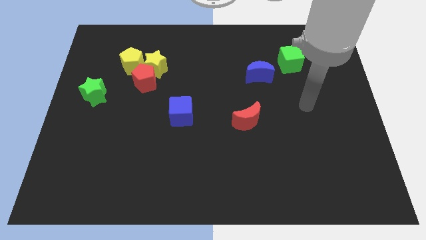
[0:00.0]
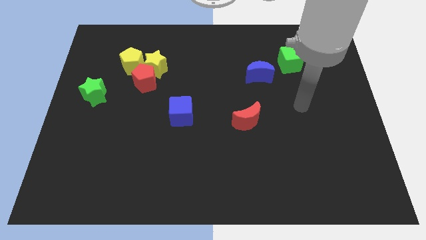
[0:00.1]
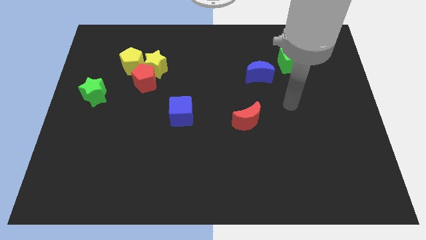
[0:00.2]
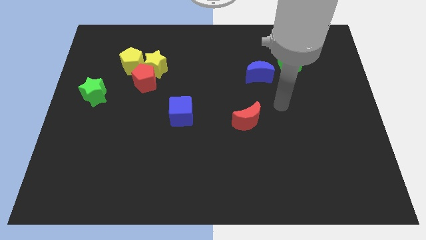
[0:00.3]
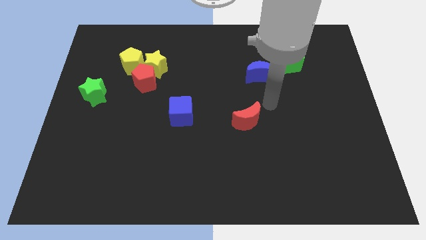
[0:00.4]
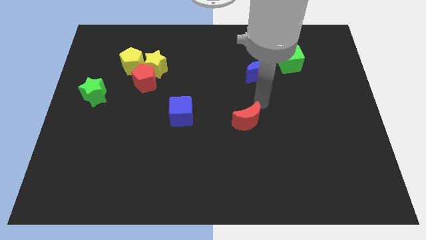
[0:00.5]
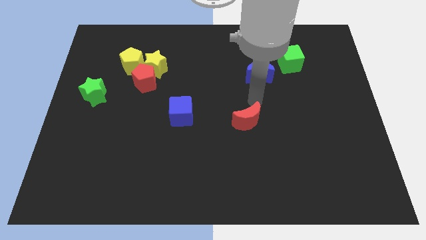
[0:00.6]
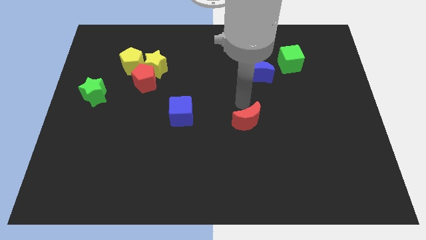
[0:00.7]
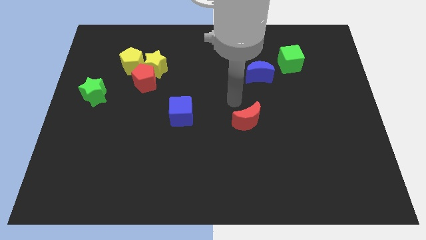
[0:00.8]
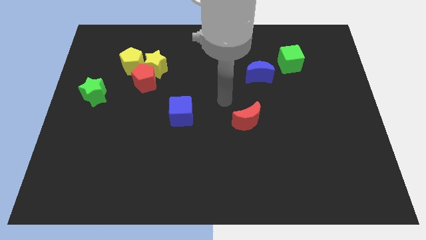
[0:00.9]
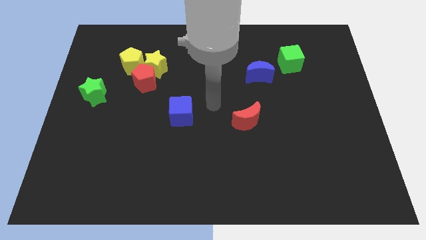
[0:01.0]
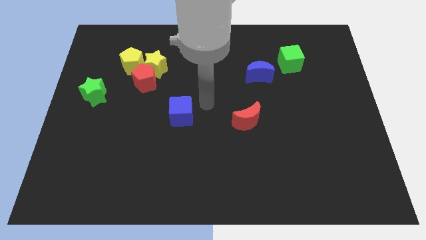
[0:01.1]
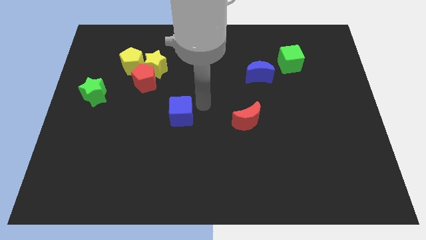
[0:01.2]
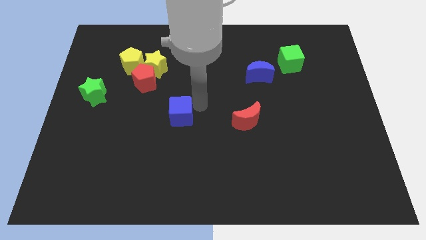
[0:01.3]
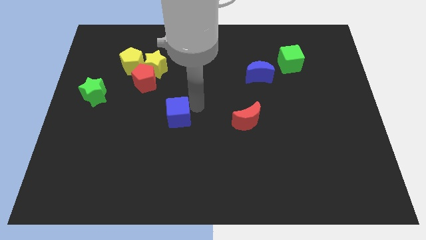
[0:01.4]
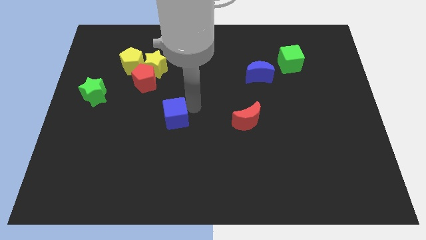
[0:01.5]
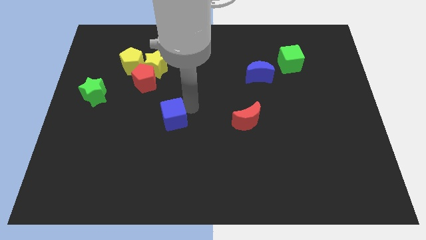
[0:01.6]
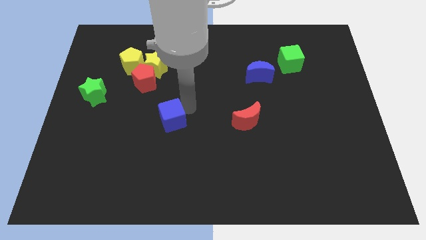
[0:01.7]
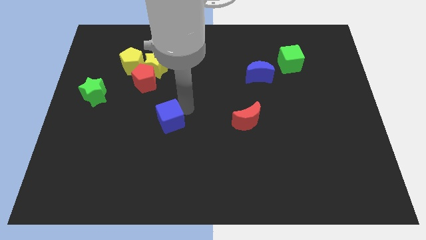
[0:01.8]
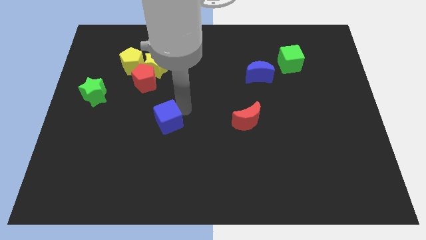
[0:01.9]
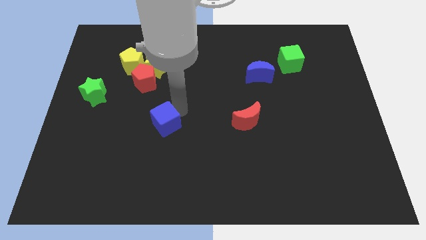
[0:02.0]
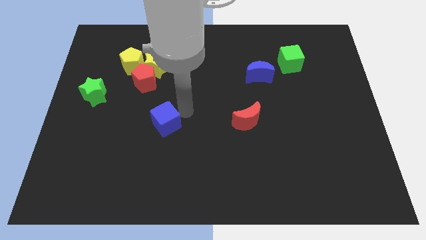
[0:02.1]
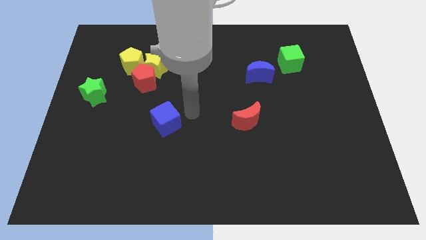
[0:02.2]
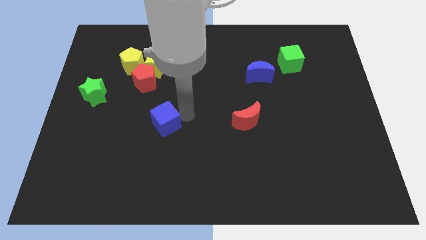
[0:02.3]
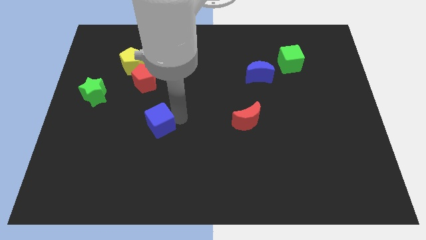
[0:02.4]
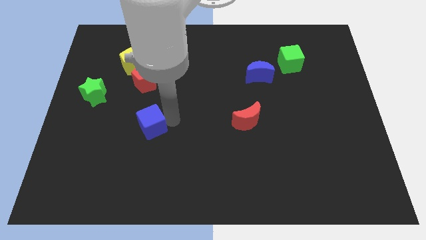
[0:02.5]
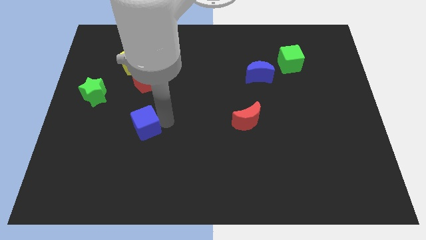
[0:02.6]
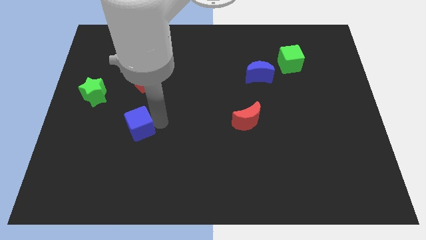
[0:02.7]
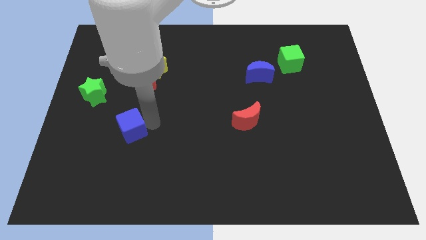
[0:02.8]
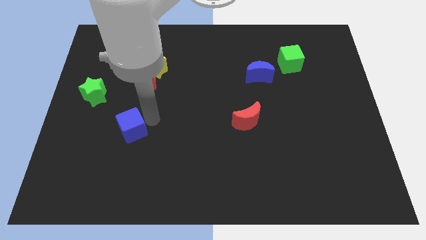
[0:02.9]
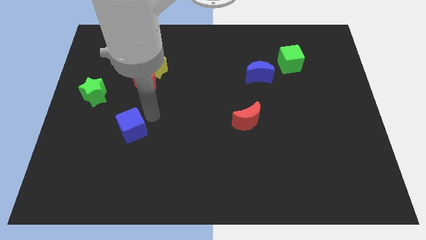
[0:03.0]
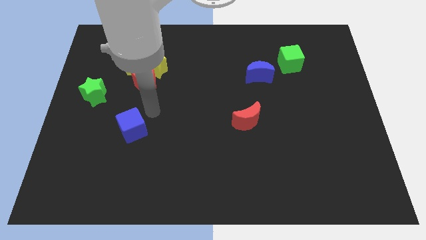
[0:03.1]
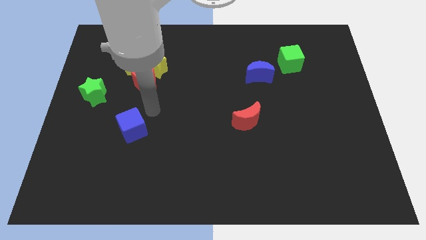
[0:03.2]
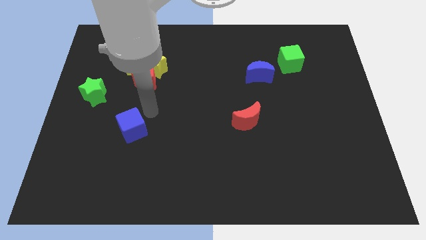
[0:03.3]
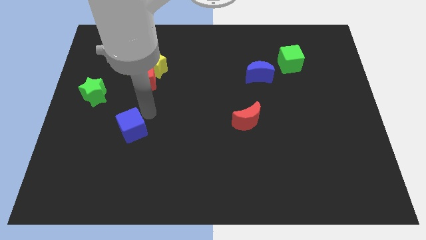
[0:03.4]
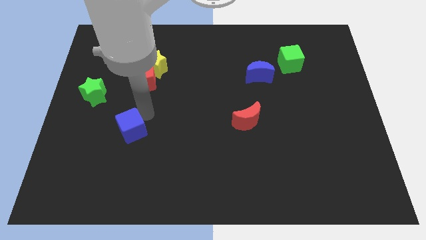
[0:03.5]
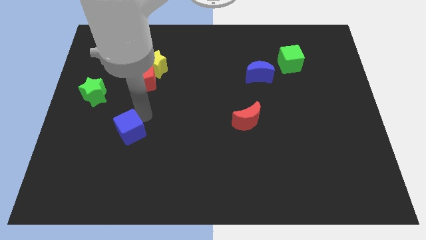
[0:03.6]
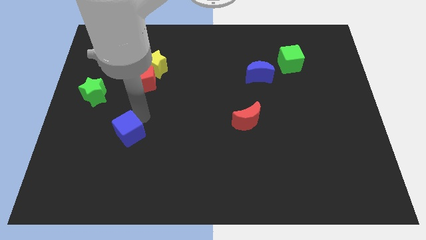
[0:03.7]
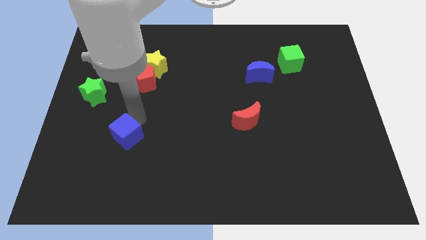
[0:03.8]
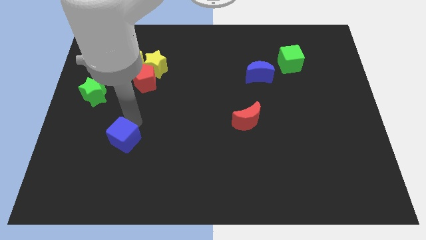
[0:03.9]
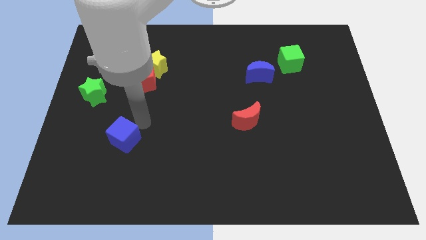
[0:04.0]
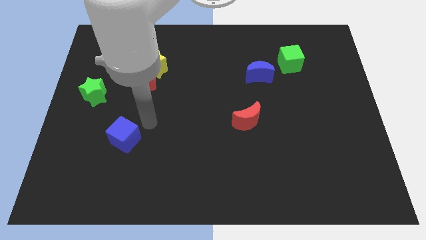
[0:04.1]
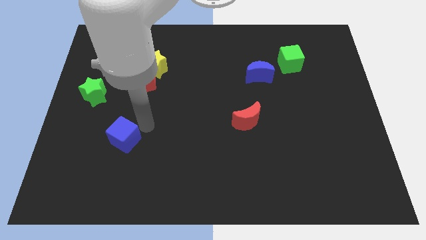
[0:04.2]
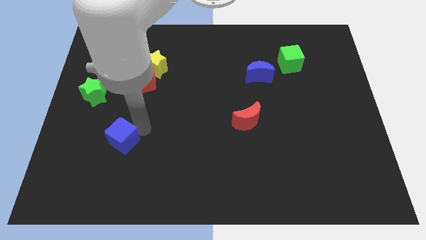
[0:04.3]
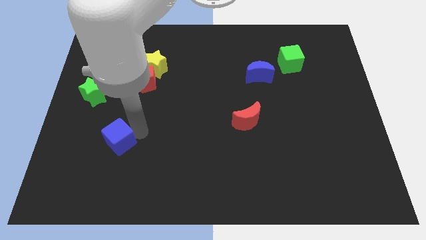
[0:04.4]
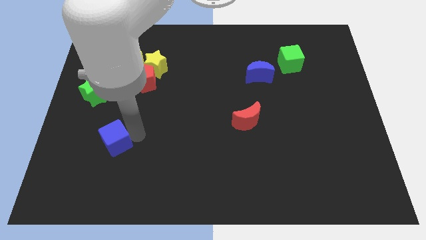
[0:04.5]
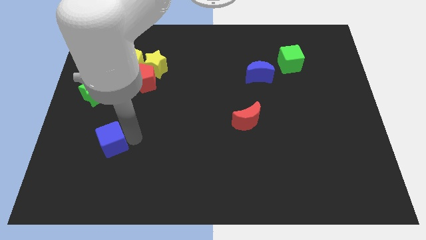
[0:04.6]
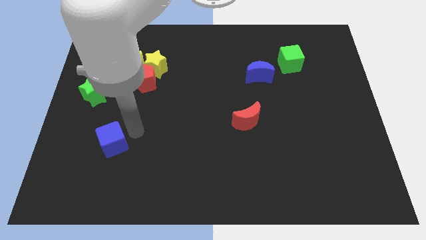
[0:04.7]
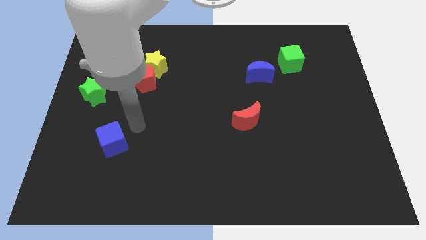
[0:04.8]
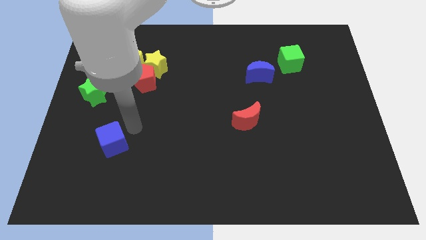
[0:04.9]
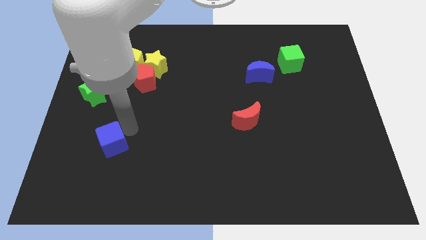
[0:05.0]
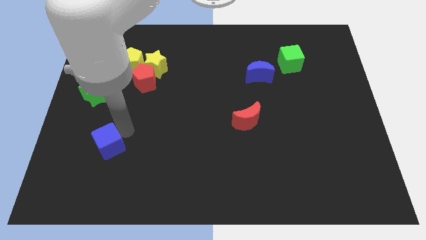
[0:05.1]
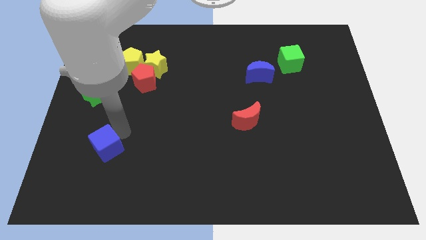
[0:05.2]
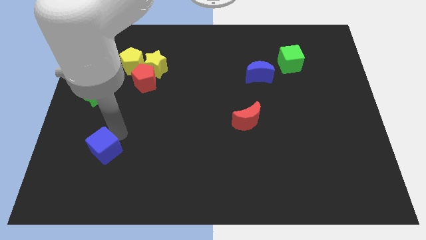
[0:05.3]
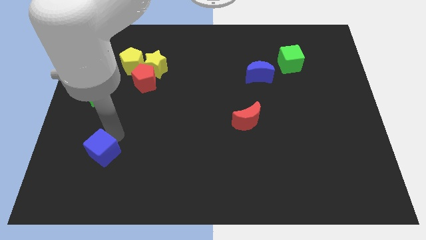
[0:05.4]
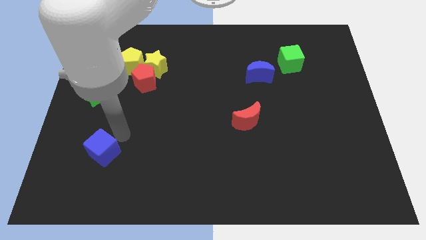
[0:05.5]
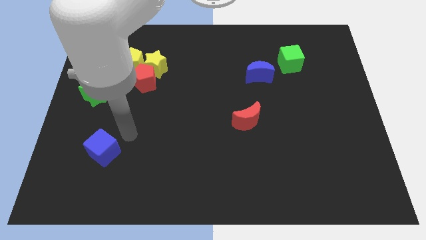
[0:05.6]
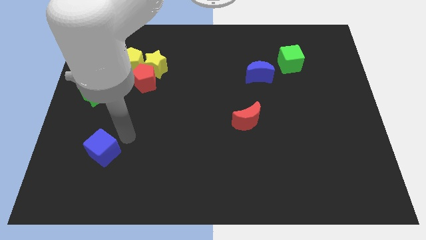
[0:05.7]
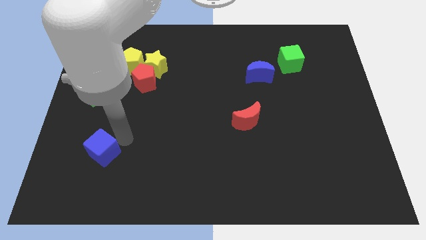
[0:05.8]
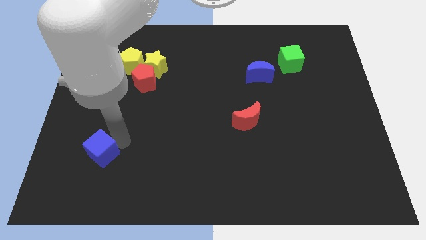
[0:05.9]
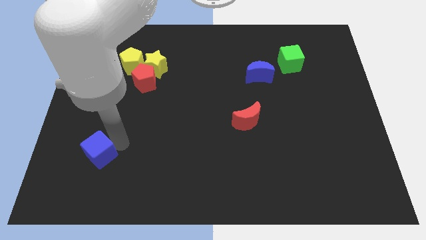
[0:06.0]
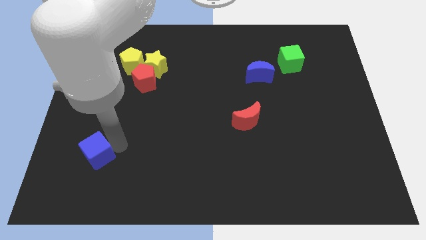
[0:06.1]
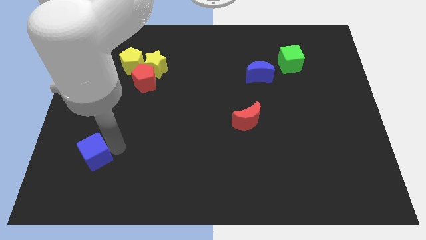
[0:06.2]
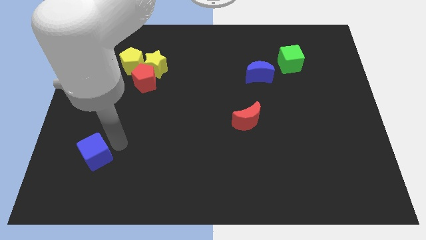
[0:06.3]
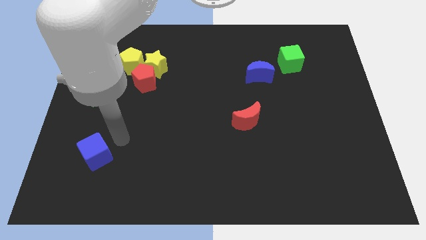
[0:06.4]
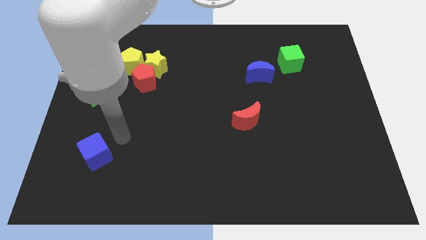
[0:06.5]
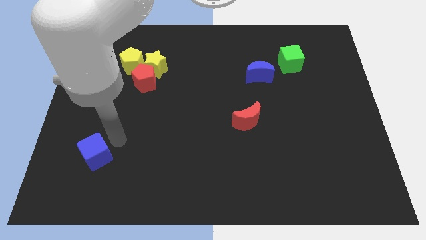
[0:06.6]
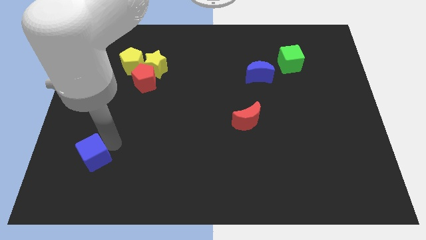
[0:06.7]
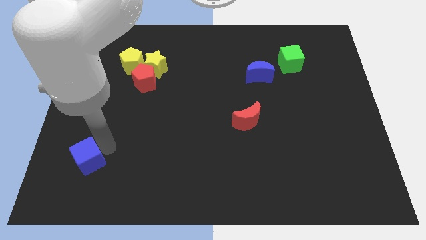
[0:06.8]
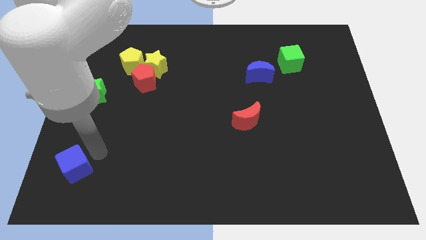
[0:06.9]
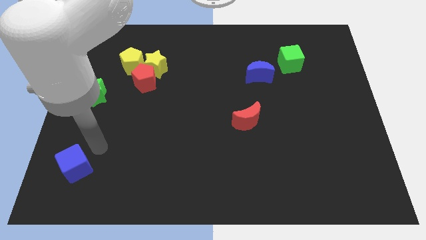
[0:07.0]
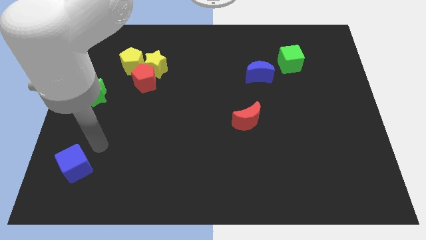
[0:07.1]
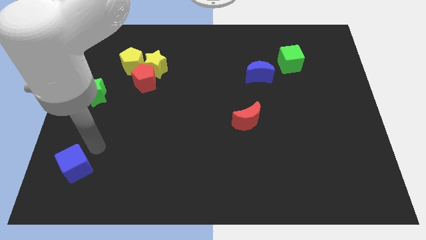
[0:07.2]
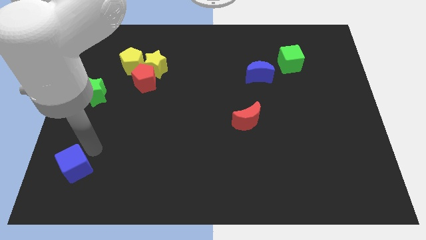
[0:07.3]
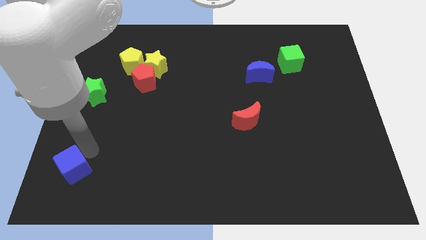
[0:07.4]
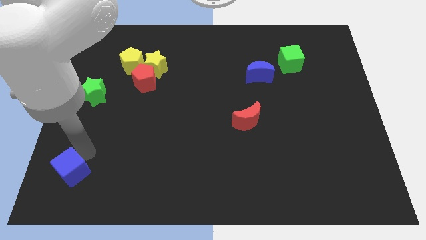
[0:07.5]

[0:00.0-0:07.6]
move the blue cube to the bottom left of the board
